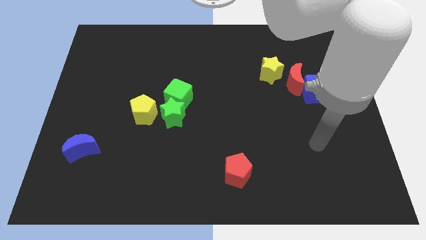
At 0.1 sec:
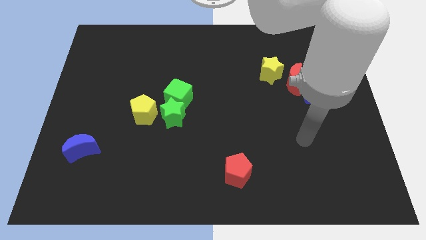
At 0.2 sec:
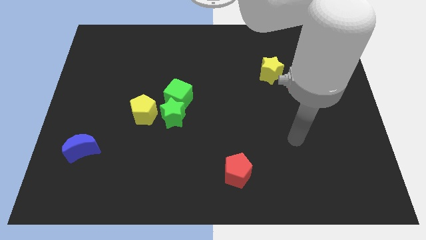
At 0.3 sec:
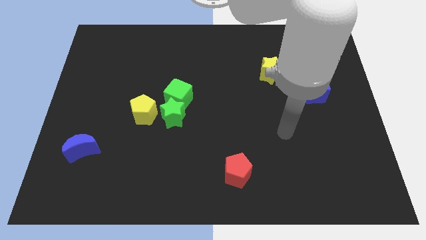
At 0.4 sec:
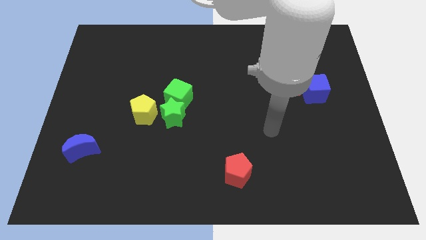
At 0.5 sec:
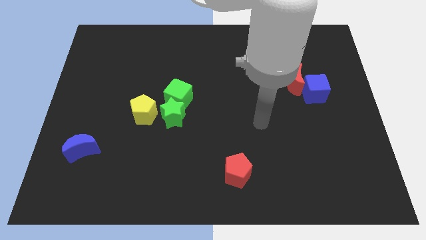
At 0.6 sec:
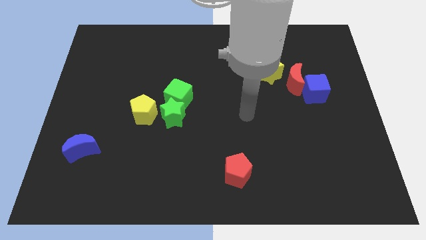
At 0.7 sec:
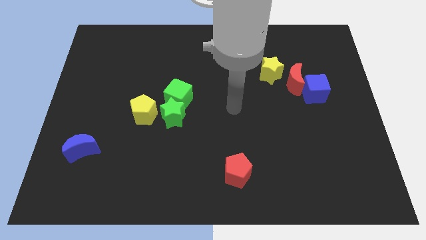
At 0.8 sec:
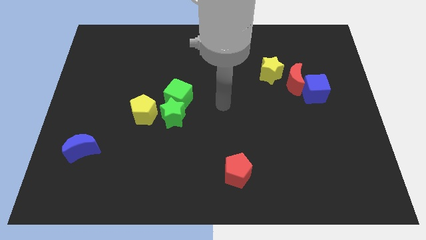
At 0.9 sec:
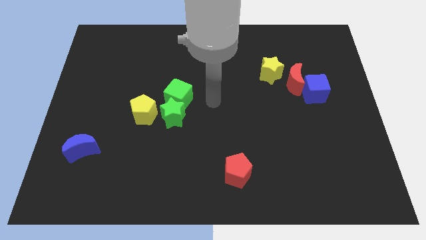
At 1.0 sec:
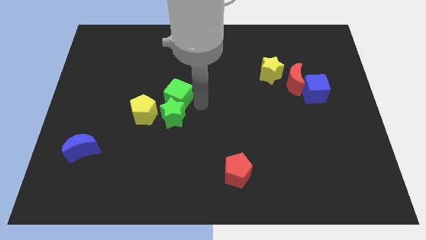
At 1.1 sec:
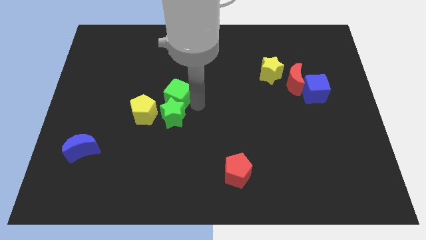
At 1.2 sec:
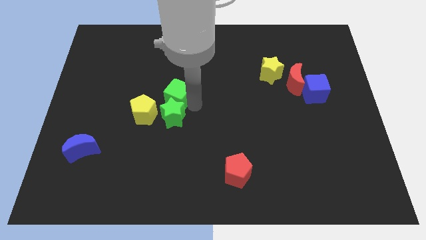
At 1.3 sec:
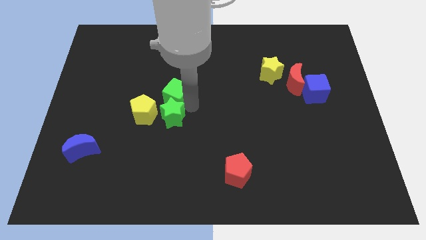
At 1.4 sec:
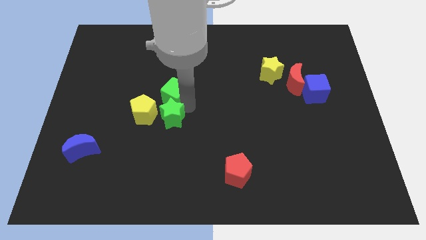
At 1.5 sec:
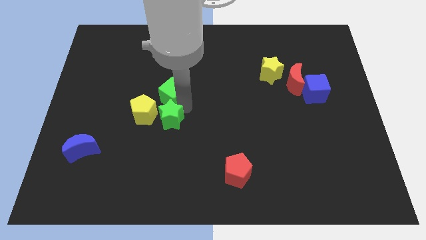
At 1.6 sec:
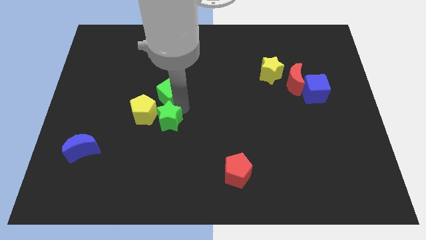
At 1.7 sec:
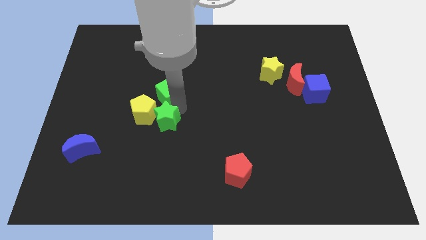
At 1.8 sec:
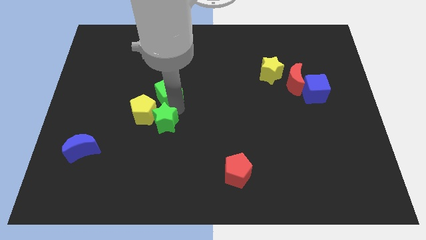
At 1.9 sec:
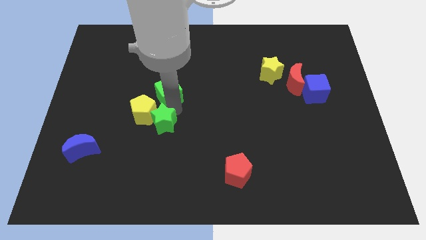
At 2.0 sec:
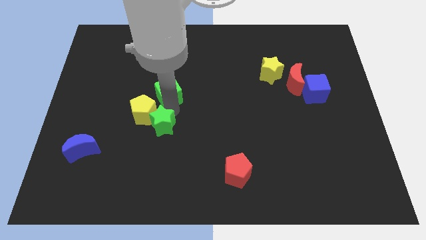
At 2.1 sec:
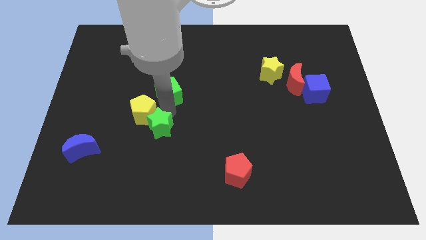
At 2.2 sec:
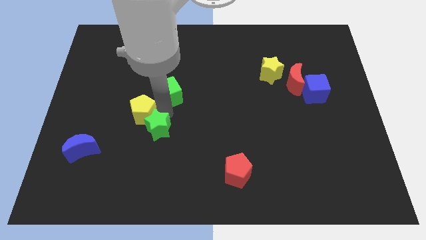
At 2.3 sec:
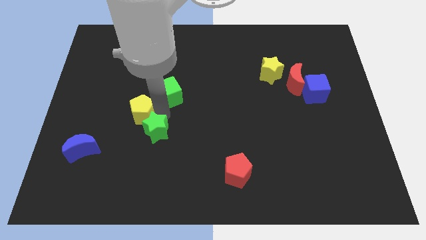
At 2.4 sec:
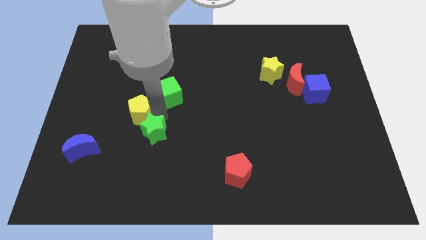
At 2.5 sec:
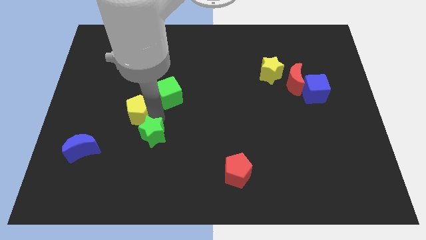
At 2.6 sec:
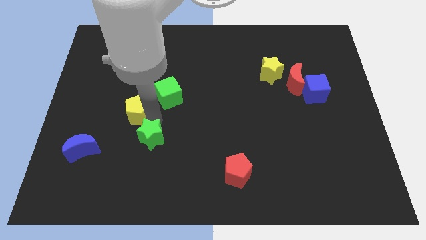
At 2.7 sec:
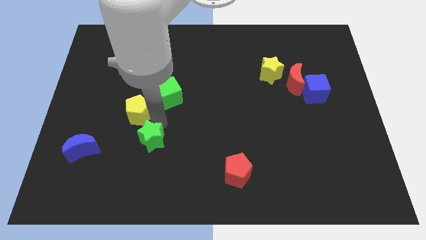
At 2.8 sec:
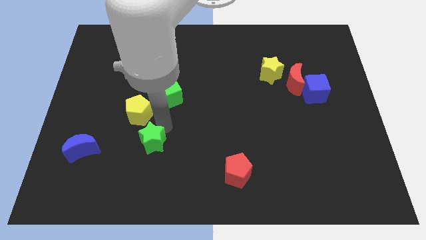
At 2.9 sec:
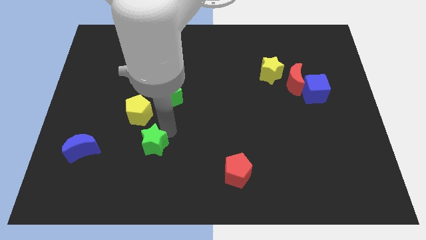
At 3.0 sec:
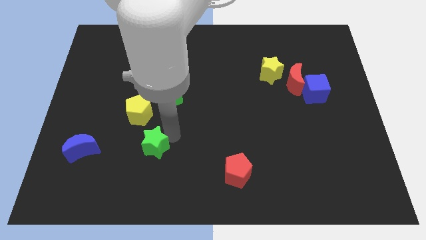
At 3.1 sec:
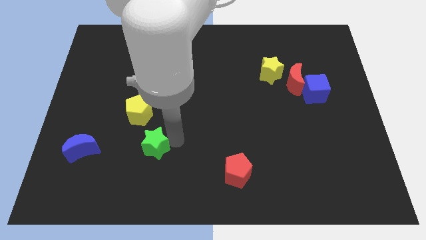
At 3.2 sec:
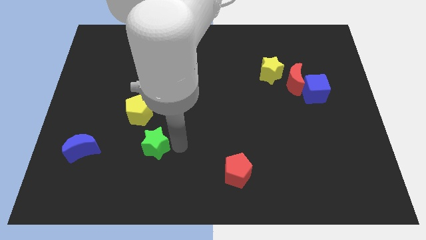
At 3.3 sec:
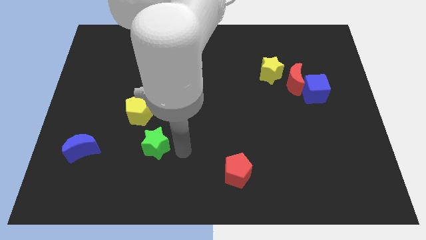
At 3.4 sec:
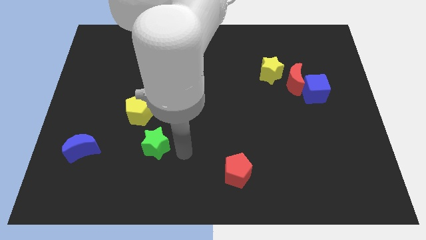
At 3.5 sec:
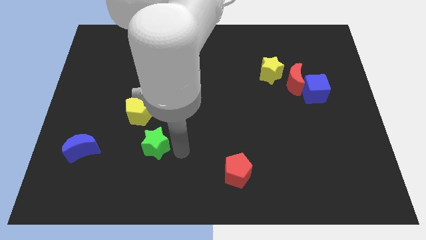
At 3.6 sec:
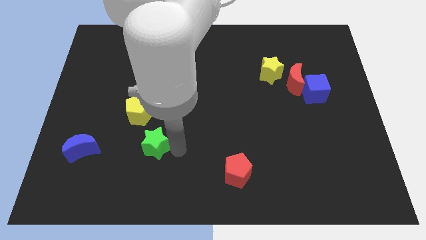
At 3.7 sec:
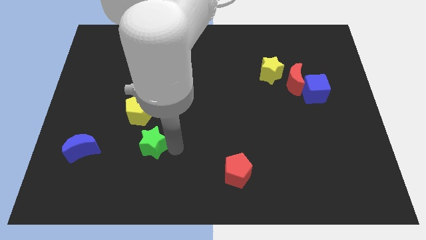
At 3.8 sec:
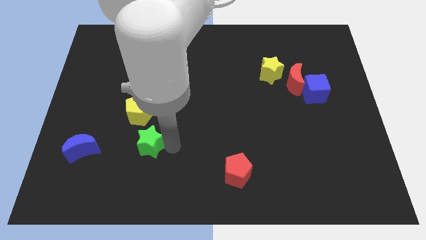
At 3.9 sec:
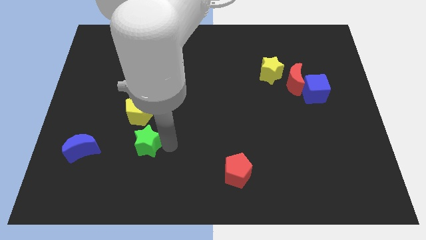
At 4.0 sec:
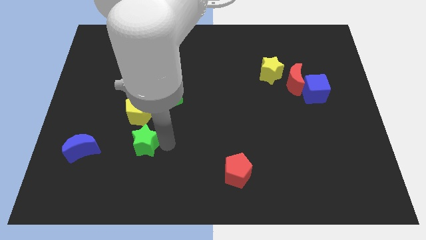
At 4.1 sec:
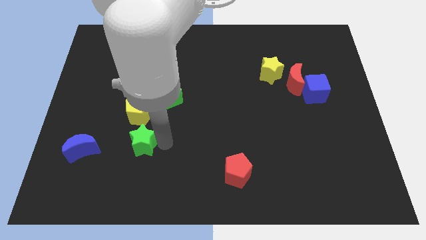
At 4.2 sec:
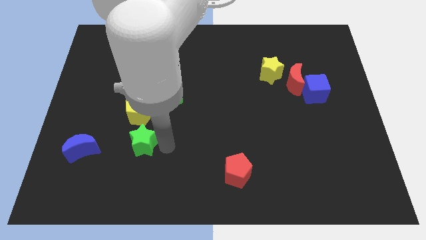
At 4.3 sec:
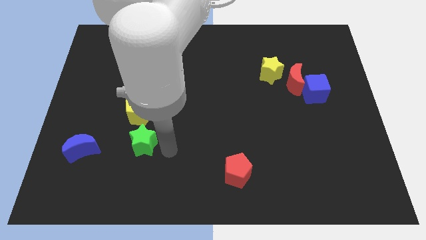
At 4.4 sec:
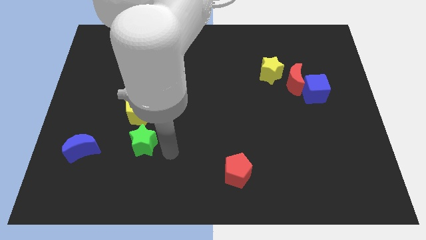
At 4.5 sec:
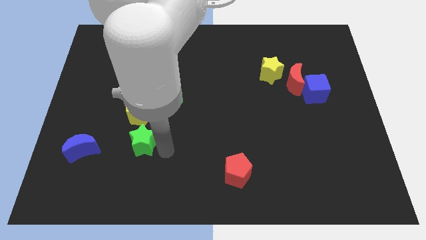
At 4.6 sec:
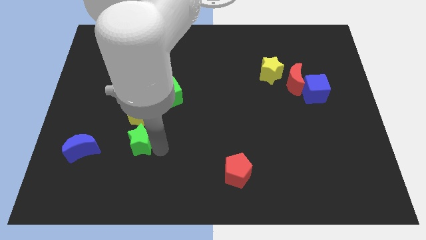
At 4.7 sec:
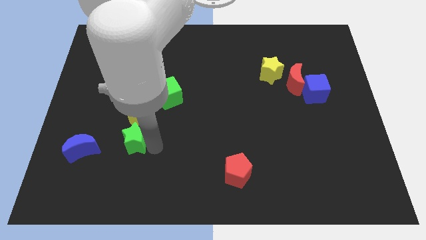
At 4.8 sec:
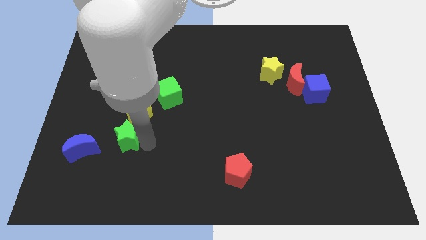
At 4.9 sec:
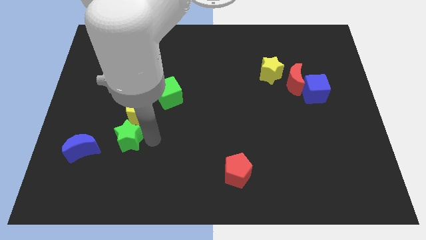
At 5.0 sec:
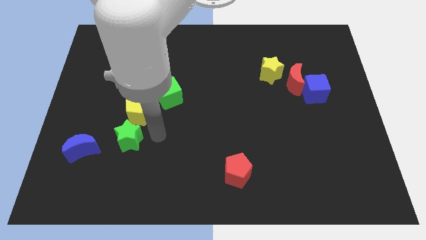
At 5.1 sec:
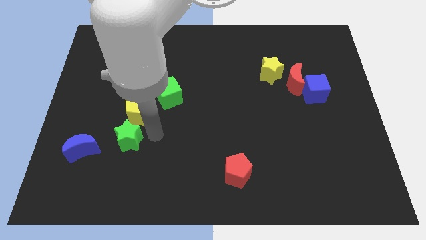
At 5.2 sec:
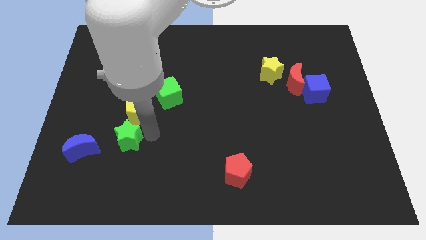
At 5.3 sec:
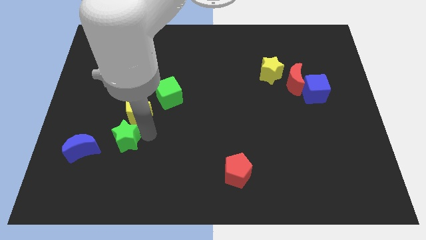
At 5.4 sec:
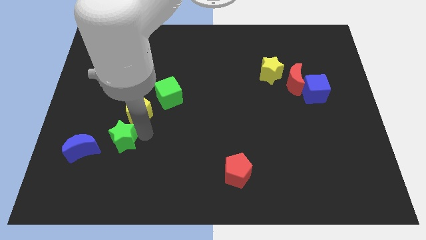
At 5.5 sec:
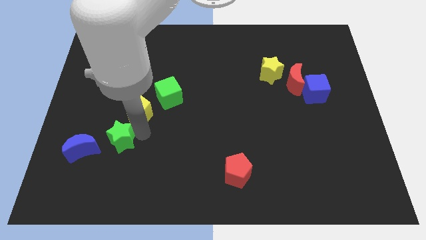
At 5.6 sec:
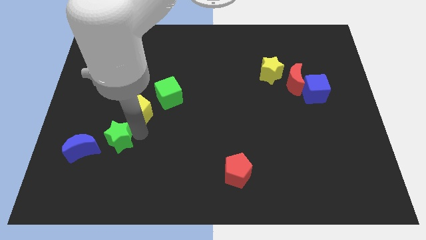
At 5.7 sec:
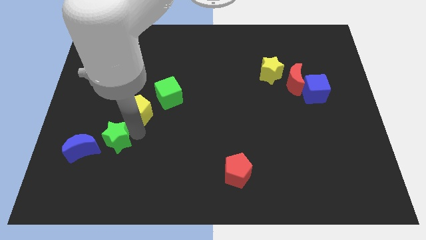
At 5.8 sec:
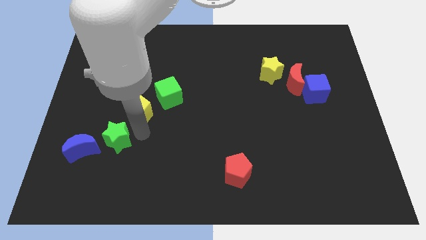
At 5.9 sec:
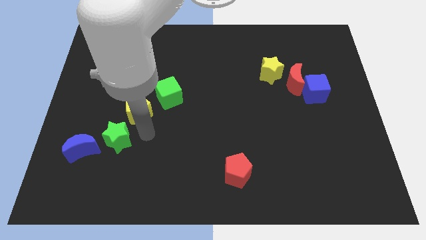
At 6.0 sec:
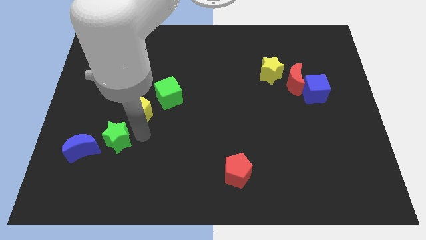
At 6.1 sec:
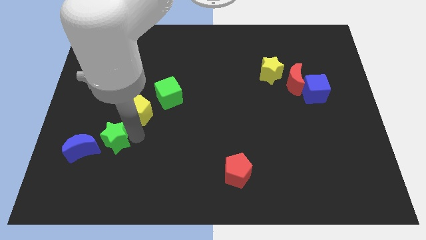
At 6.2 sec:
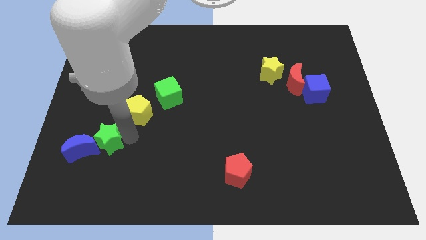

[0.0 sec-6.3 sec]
slide the green star close to the blue moon

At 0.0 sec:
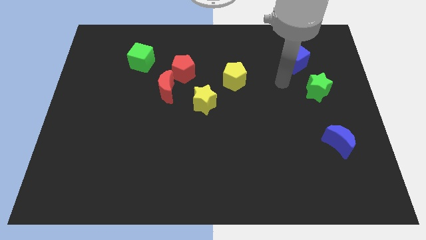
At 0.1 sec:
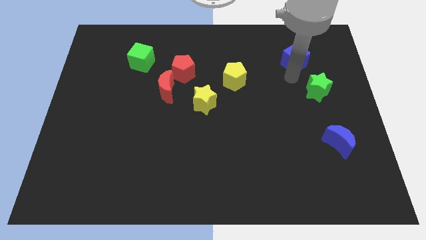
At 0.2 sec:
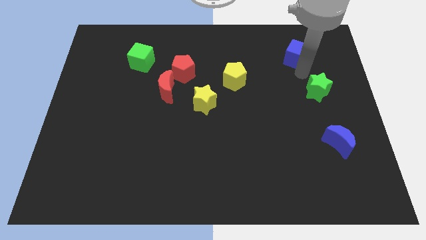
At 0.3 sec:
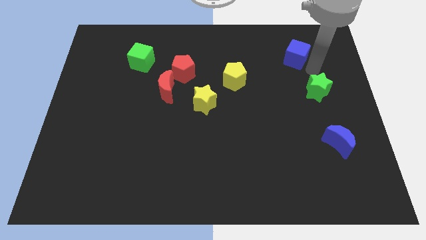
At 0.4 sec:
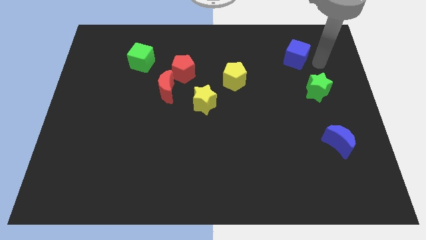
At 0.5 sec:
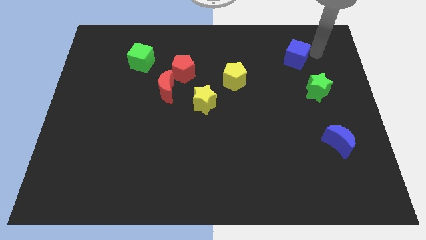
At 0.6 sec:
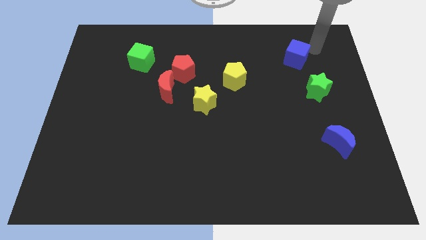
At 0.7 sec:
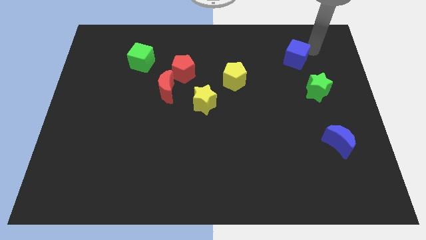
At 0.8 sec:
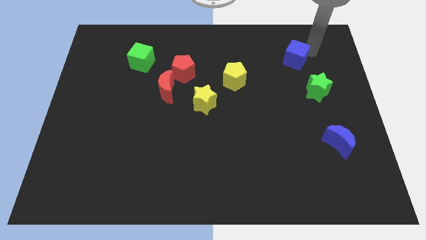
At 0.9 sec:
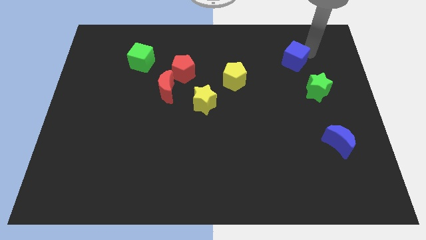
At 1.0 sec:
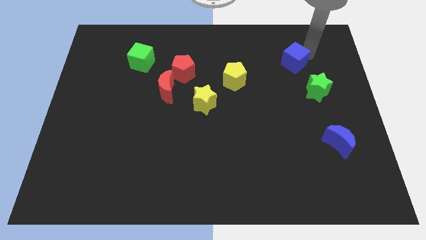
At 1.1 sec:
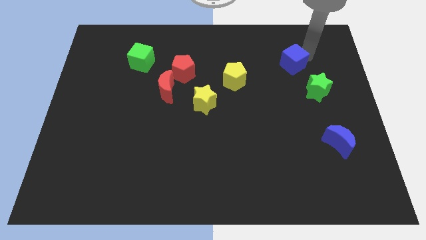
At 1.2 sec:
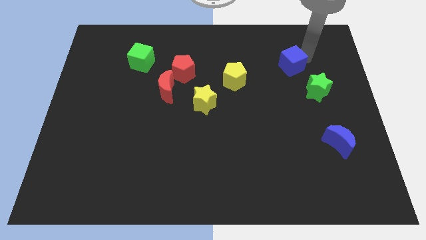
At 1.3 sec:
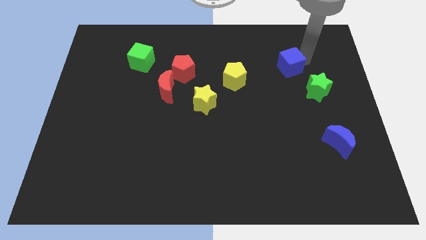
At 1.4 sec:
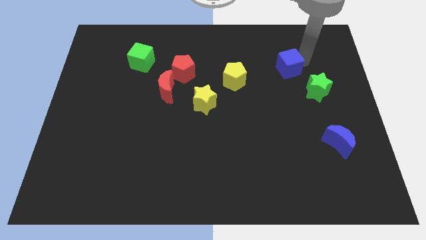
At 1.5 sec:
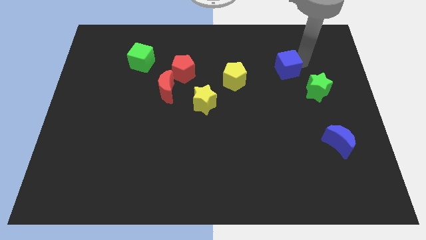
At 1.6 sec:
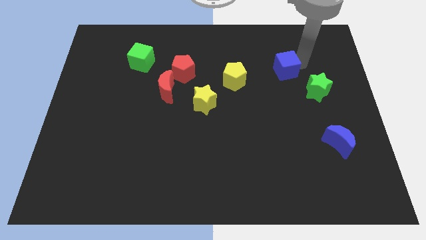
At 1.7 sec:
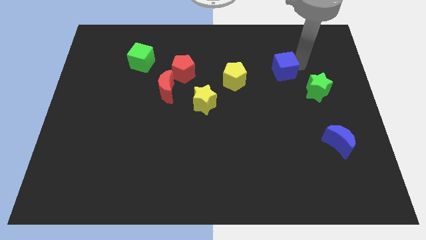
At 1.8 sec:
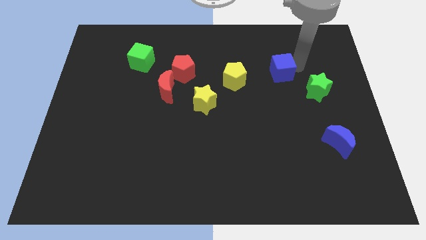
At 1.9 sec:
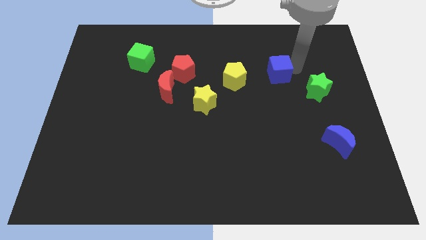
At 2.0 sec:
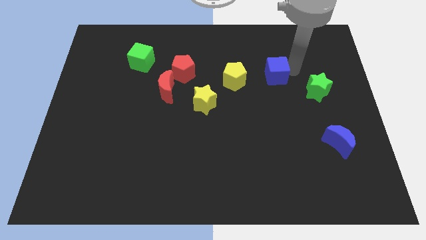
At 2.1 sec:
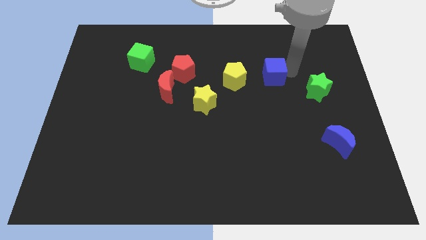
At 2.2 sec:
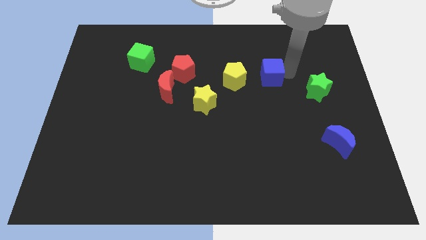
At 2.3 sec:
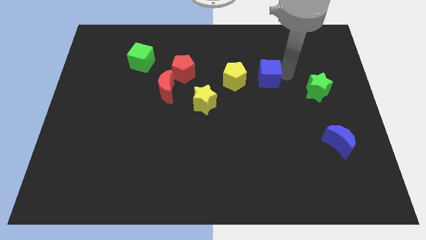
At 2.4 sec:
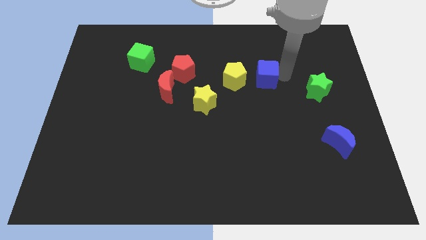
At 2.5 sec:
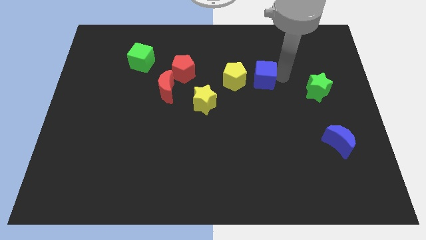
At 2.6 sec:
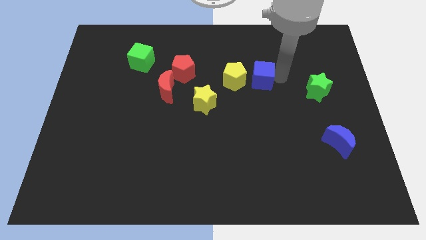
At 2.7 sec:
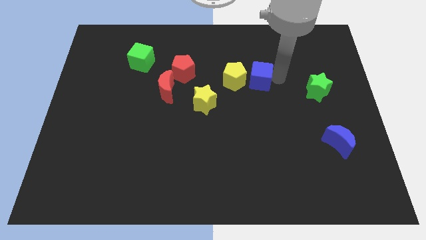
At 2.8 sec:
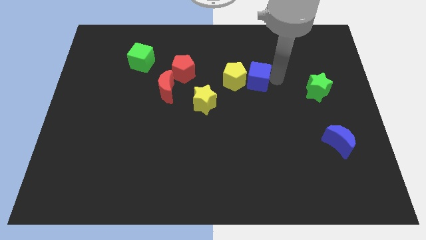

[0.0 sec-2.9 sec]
slide the blue cube to the yellow pentagon
